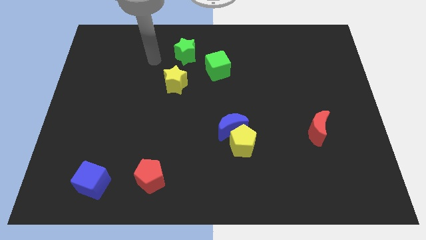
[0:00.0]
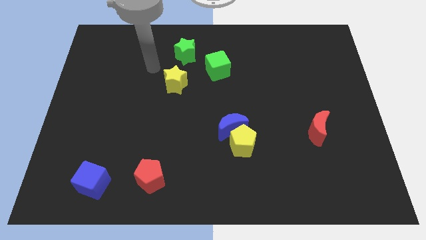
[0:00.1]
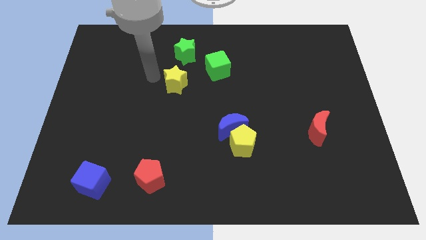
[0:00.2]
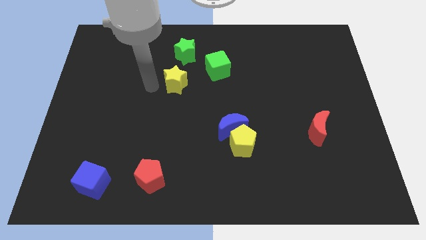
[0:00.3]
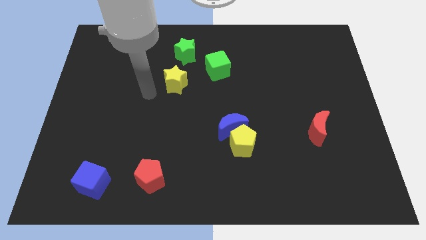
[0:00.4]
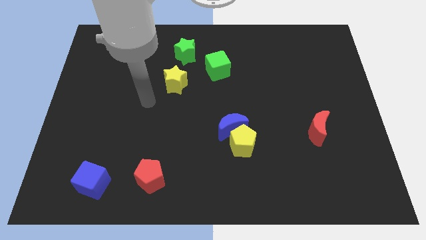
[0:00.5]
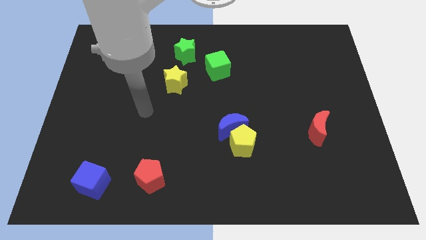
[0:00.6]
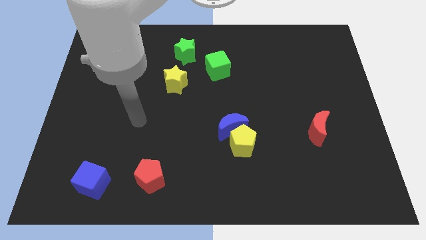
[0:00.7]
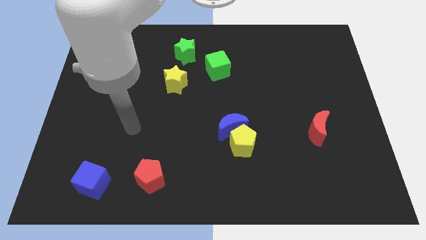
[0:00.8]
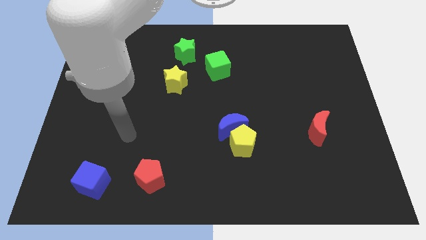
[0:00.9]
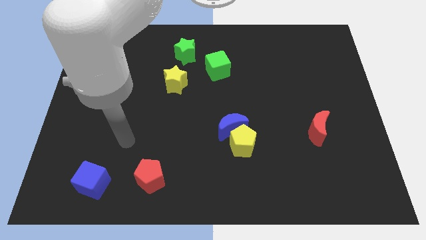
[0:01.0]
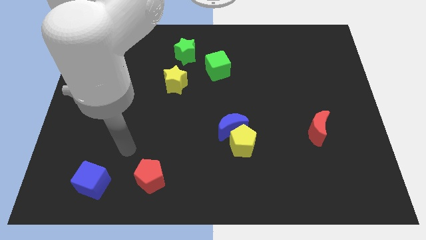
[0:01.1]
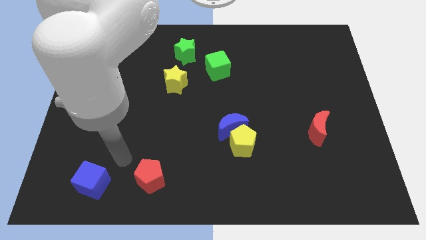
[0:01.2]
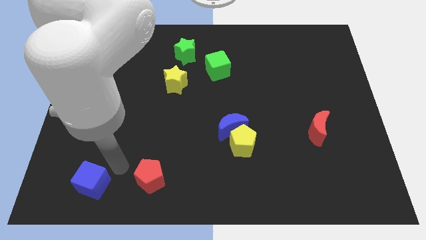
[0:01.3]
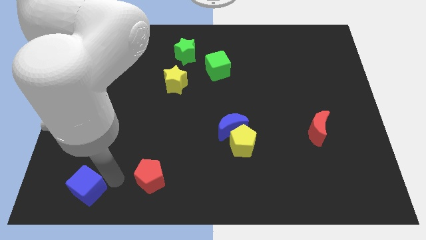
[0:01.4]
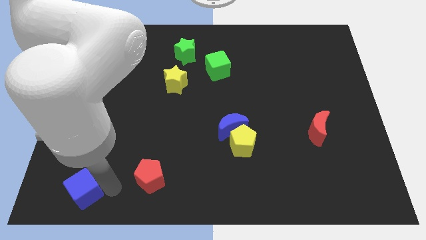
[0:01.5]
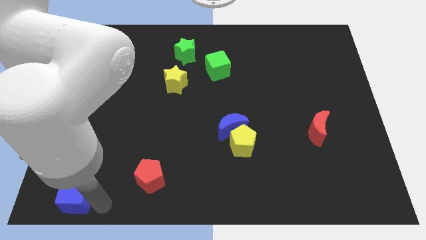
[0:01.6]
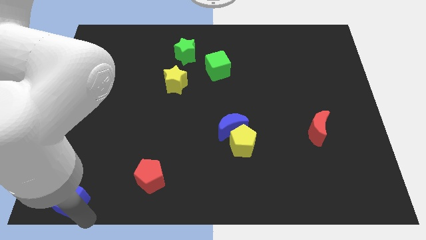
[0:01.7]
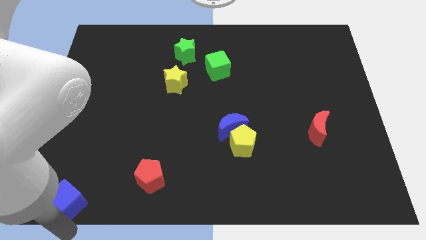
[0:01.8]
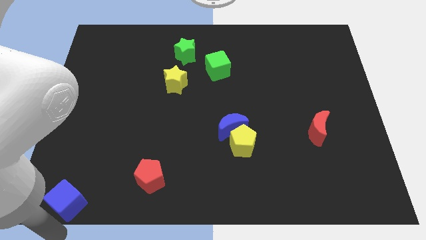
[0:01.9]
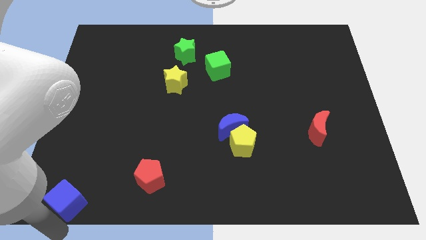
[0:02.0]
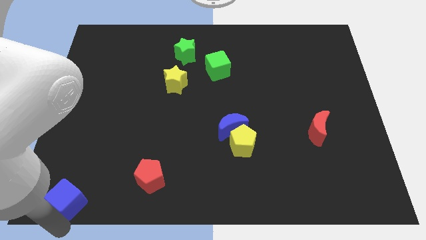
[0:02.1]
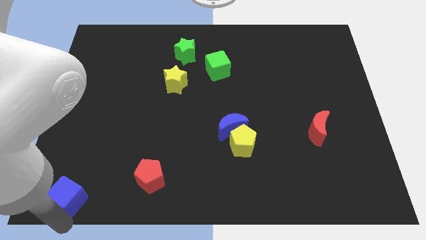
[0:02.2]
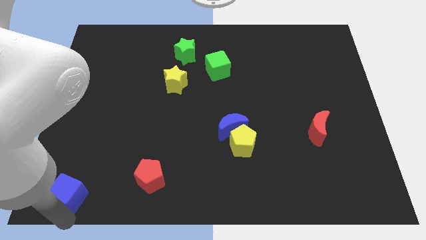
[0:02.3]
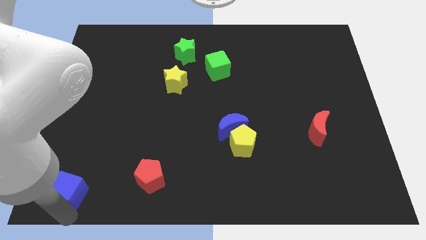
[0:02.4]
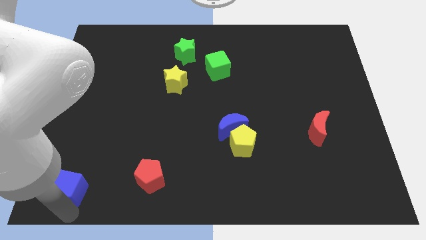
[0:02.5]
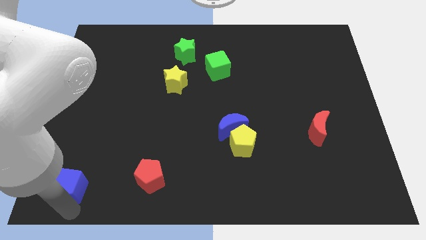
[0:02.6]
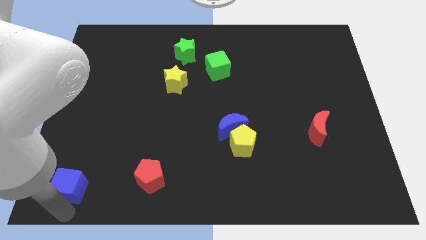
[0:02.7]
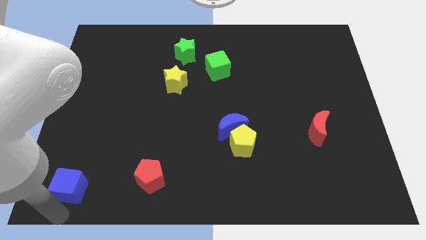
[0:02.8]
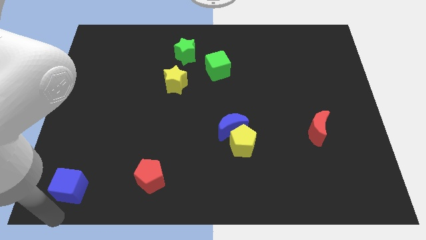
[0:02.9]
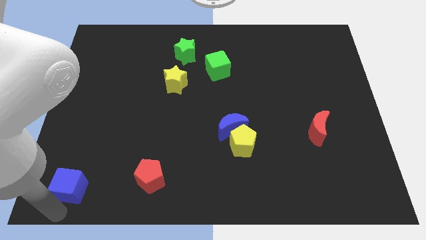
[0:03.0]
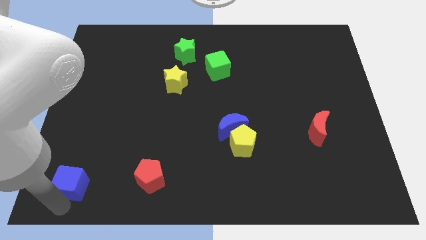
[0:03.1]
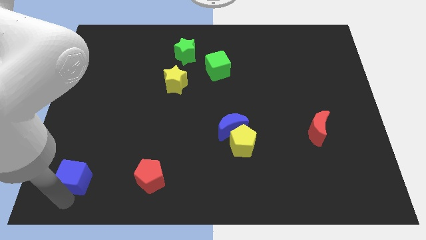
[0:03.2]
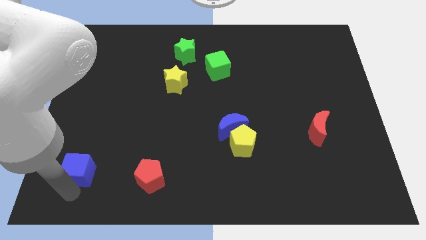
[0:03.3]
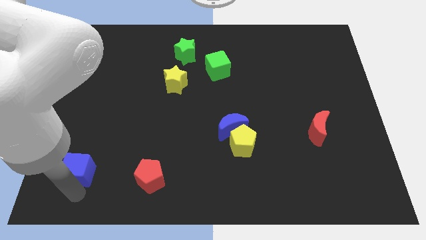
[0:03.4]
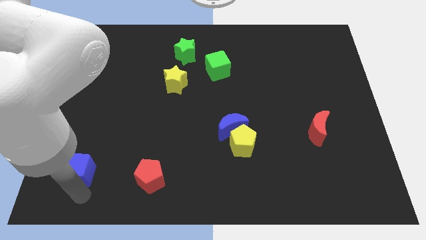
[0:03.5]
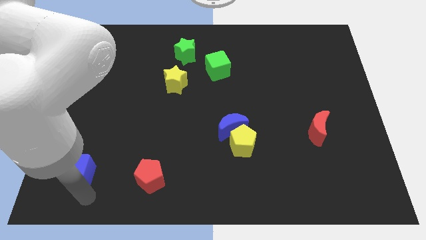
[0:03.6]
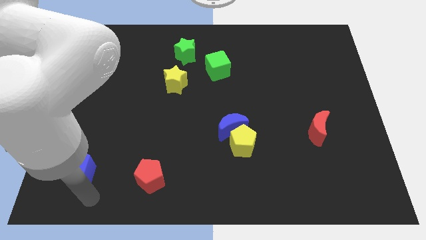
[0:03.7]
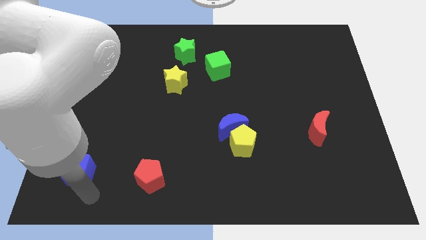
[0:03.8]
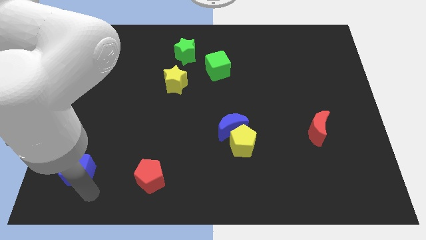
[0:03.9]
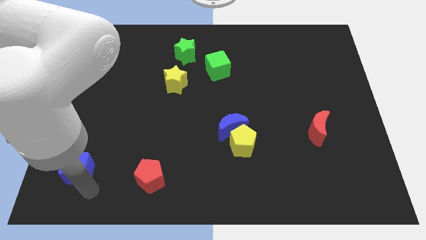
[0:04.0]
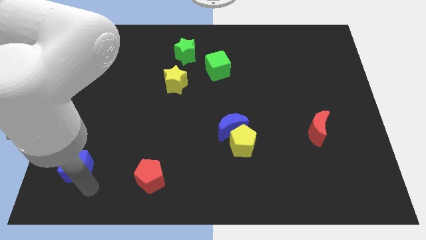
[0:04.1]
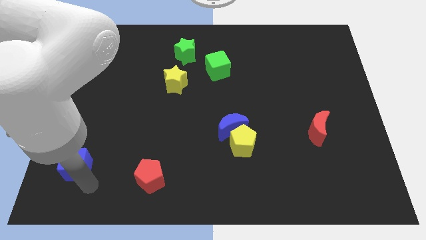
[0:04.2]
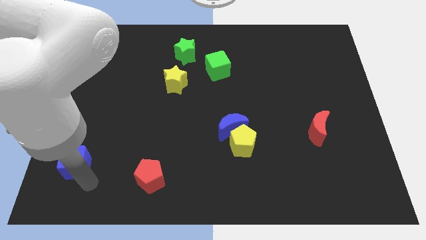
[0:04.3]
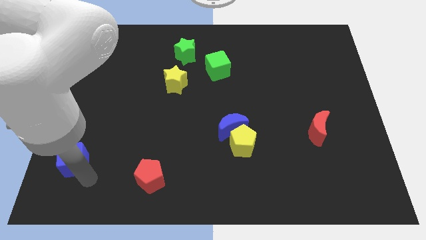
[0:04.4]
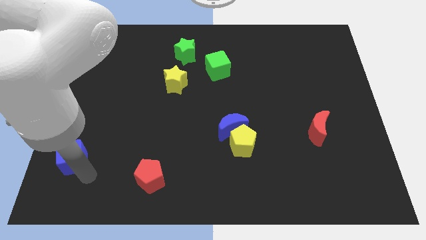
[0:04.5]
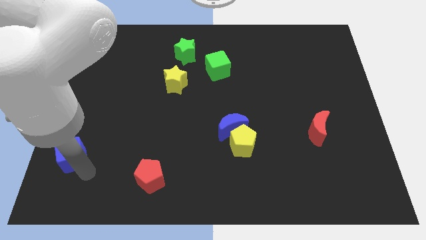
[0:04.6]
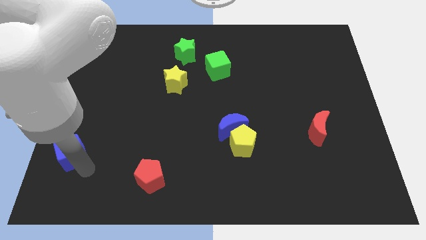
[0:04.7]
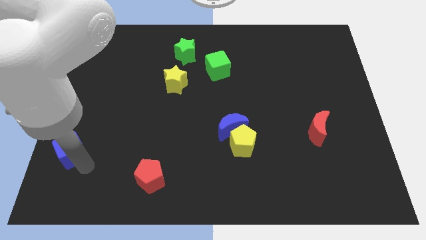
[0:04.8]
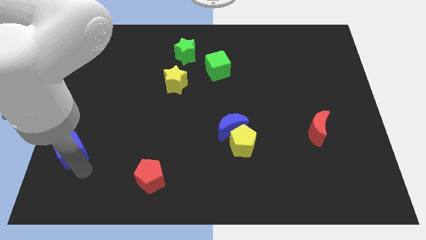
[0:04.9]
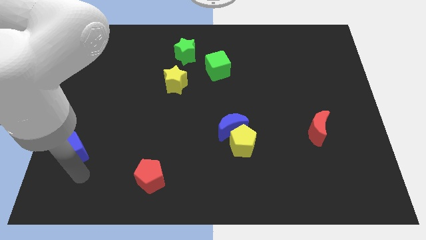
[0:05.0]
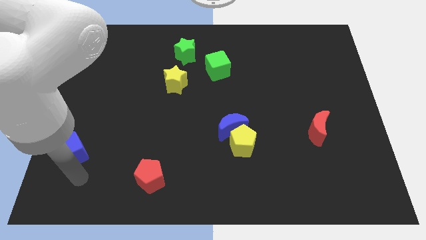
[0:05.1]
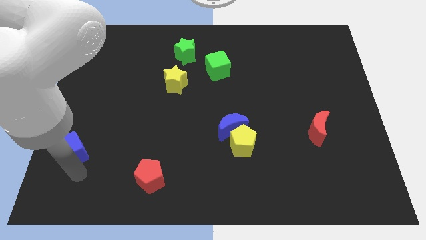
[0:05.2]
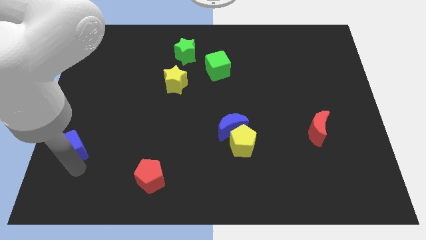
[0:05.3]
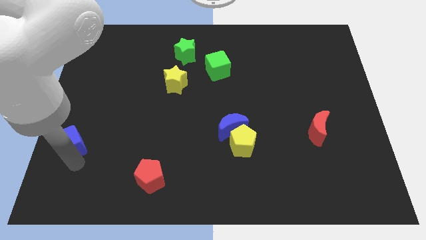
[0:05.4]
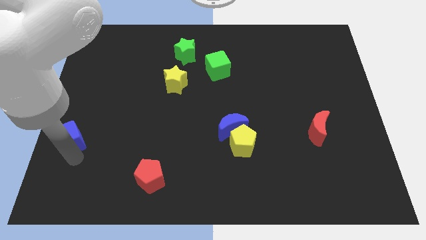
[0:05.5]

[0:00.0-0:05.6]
push the blue cube to the left side of the board

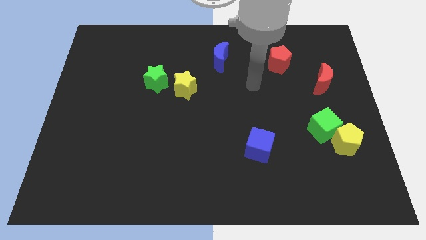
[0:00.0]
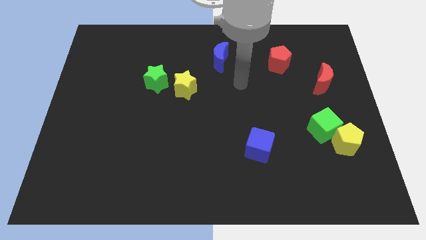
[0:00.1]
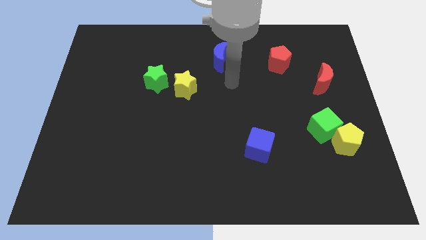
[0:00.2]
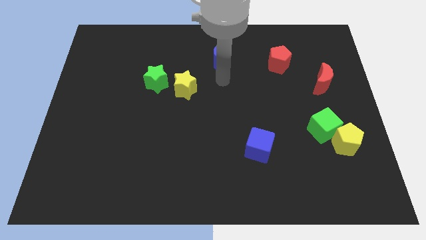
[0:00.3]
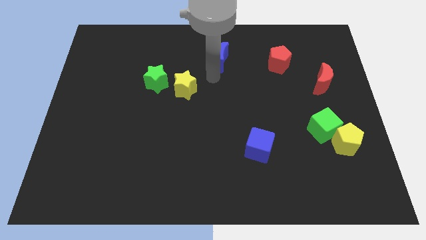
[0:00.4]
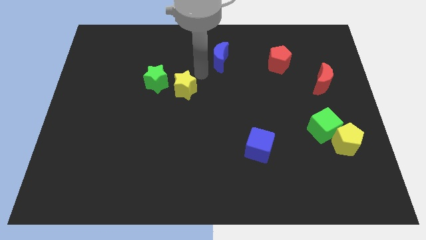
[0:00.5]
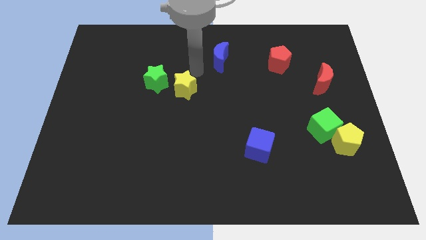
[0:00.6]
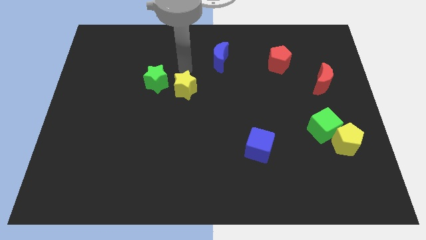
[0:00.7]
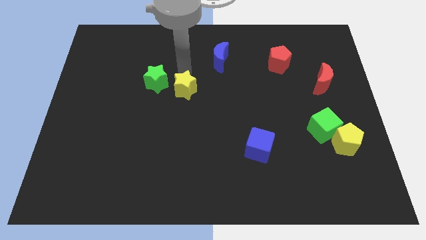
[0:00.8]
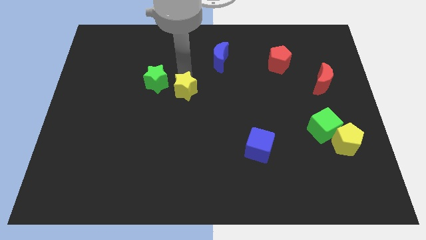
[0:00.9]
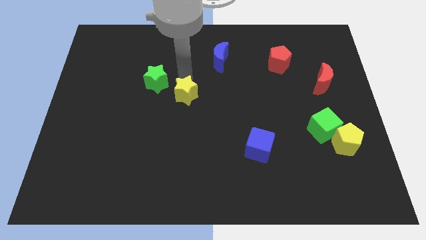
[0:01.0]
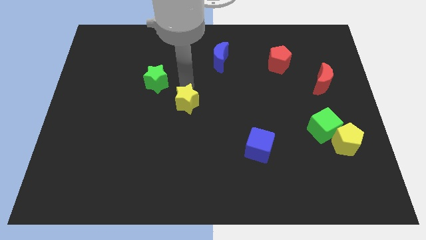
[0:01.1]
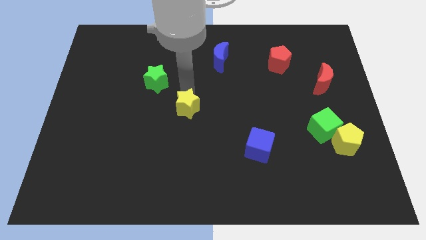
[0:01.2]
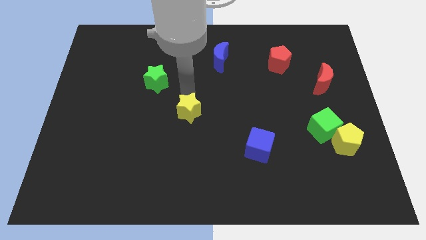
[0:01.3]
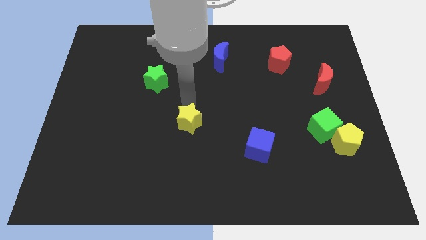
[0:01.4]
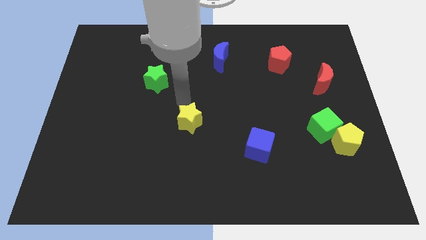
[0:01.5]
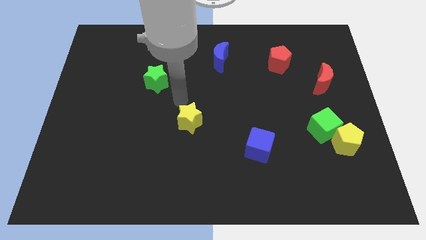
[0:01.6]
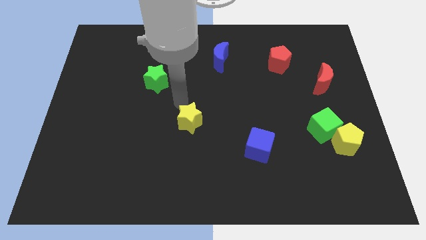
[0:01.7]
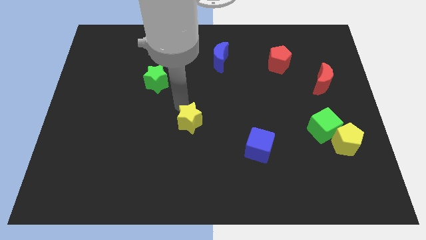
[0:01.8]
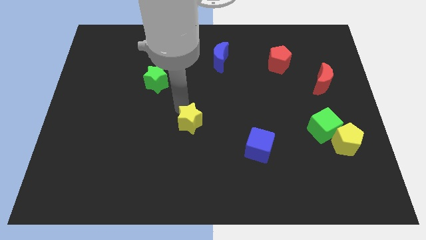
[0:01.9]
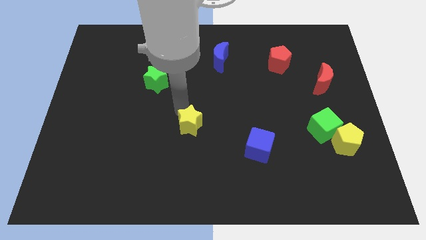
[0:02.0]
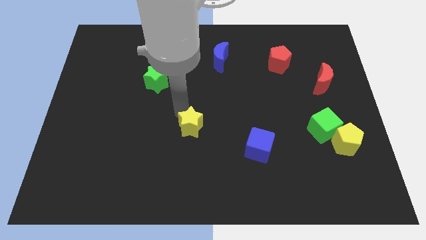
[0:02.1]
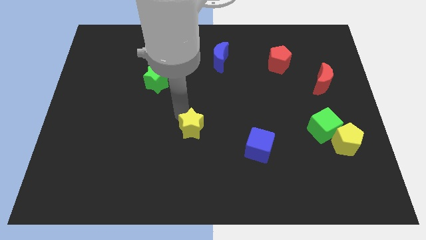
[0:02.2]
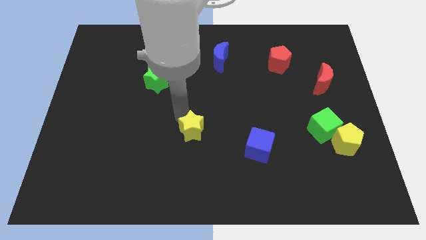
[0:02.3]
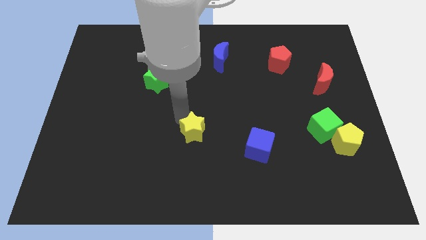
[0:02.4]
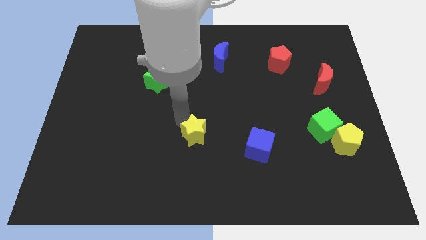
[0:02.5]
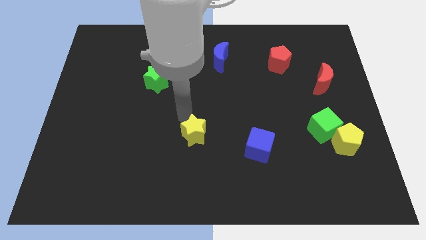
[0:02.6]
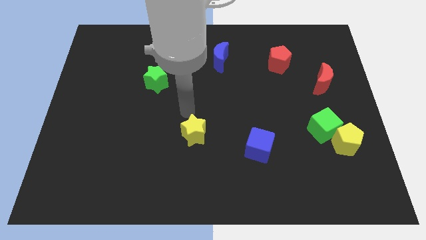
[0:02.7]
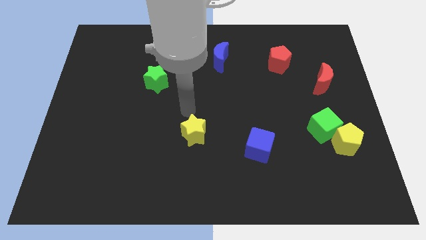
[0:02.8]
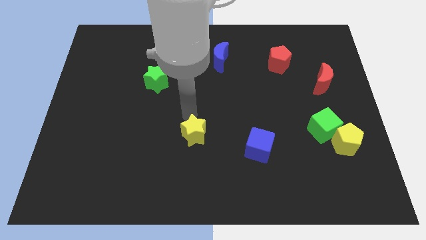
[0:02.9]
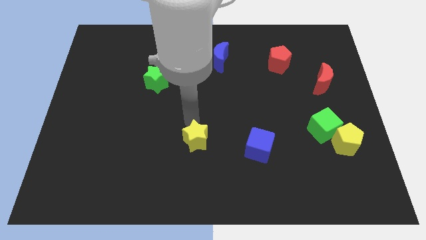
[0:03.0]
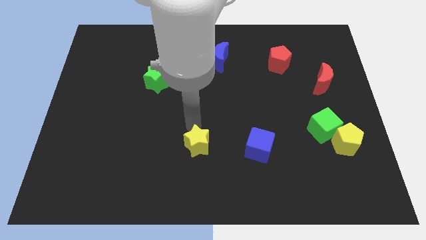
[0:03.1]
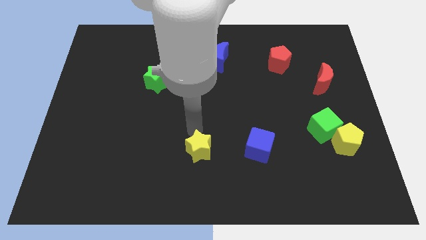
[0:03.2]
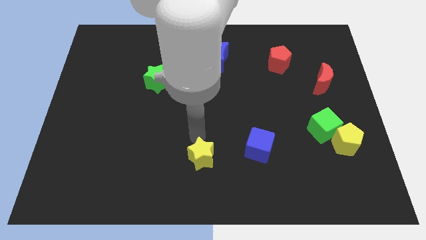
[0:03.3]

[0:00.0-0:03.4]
slide the yellow star to the bottom
